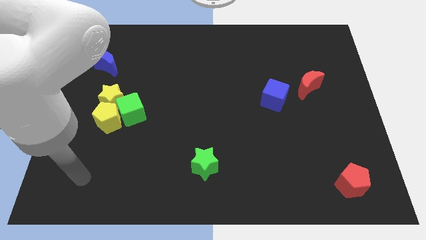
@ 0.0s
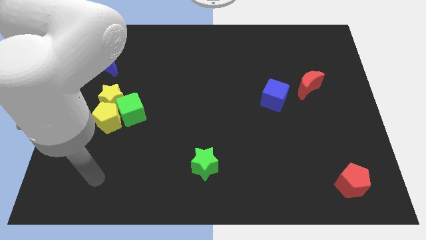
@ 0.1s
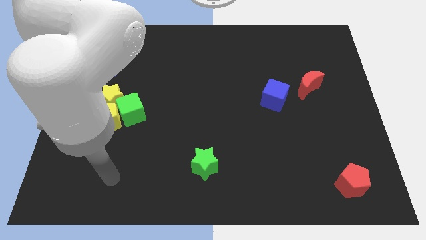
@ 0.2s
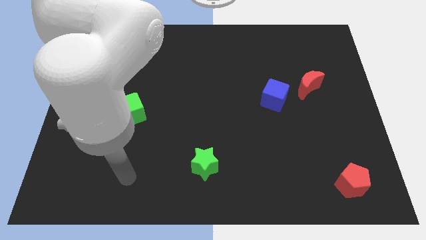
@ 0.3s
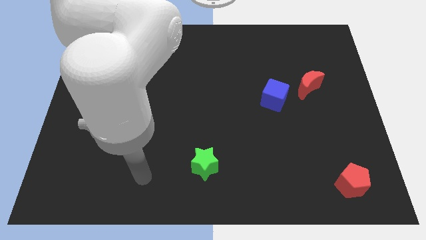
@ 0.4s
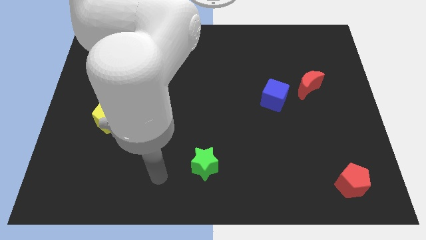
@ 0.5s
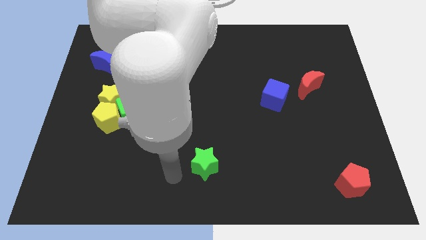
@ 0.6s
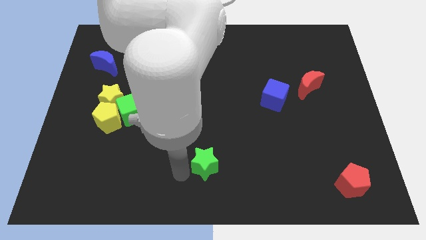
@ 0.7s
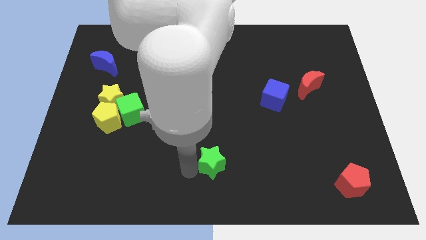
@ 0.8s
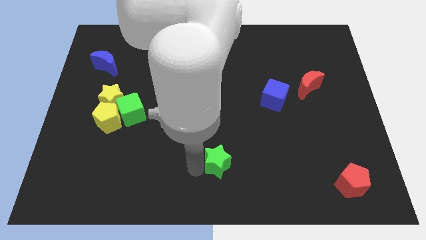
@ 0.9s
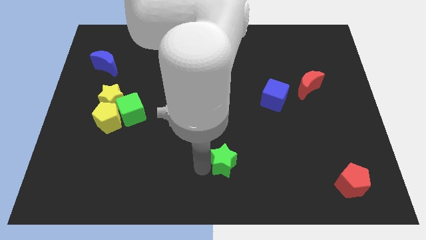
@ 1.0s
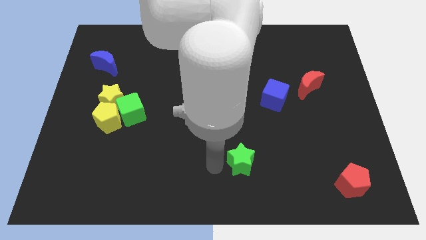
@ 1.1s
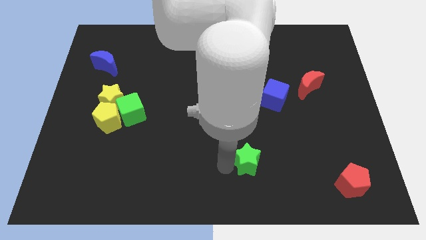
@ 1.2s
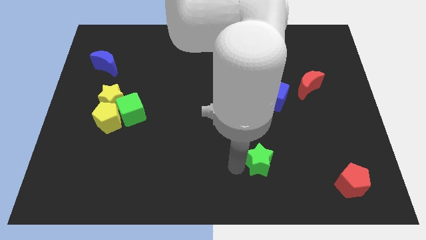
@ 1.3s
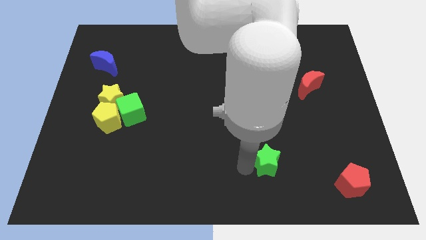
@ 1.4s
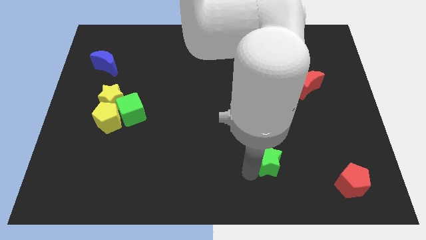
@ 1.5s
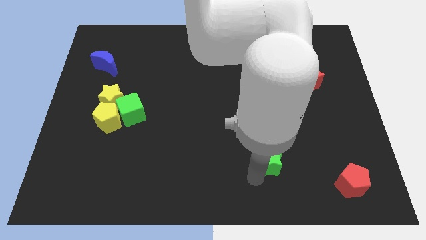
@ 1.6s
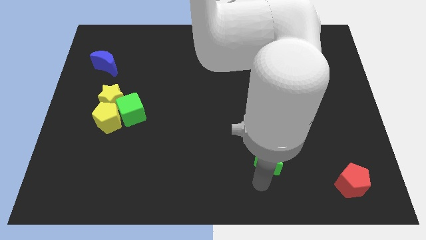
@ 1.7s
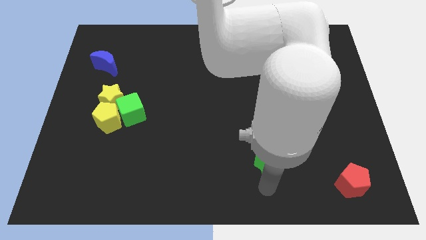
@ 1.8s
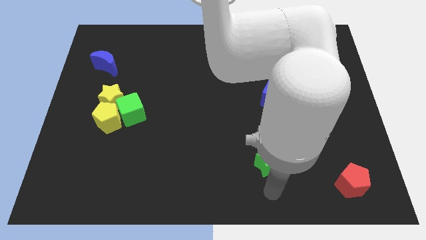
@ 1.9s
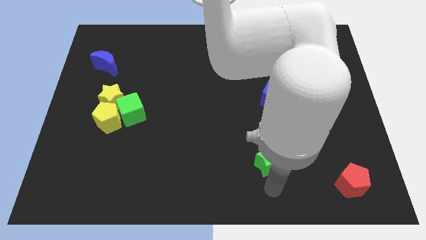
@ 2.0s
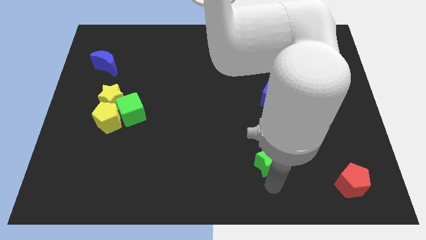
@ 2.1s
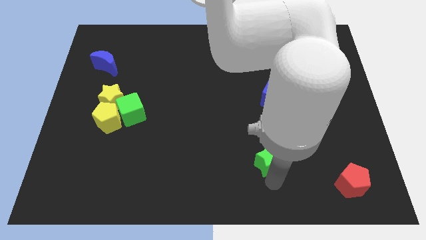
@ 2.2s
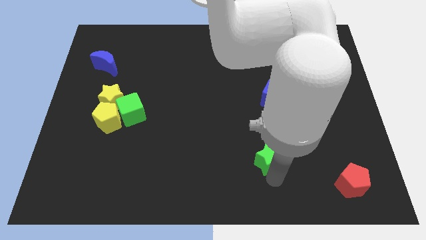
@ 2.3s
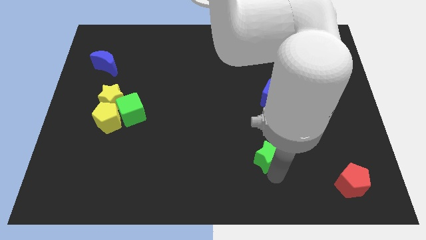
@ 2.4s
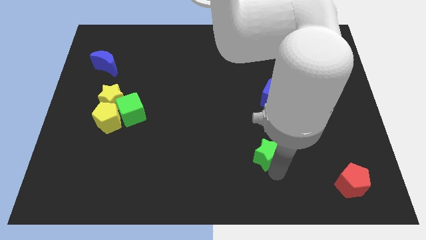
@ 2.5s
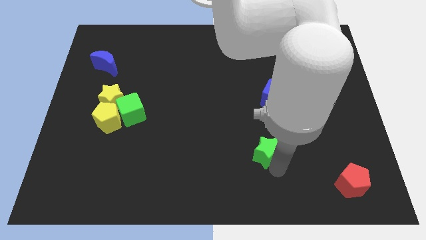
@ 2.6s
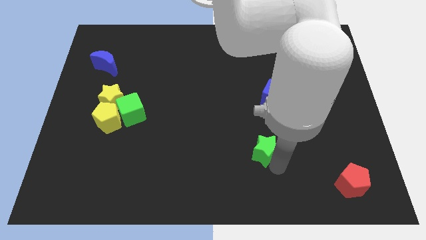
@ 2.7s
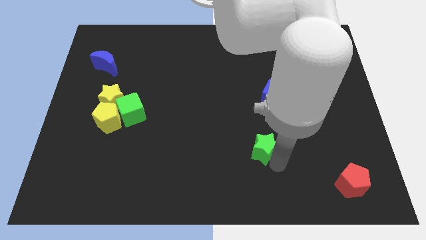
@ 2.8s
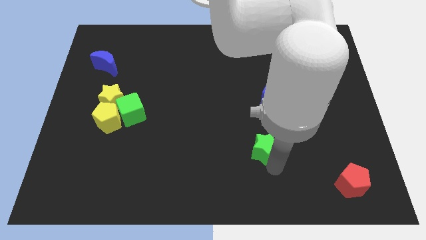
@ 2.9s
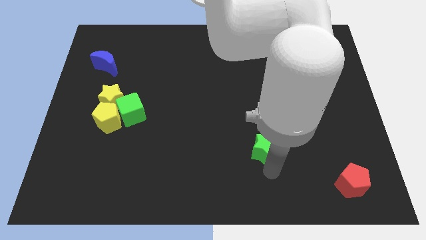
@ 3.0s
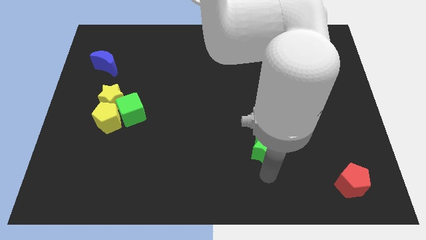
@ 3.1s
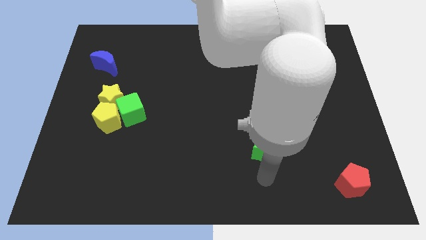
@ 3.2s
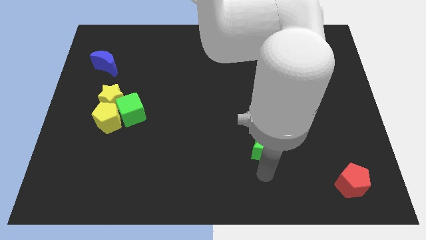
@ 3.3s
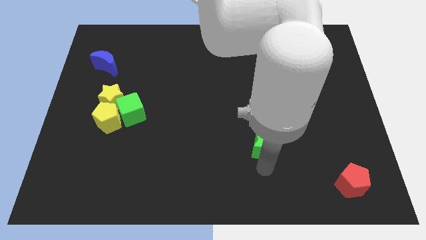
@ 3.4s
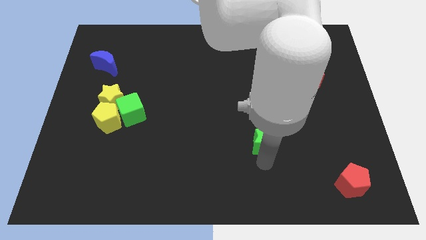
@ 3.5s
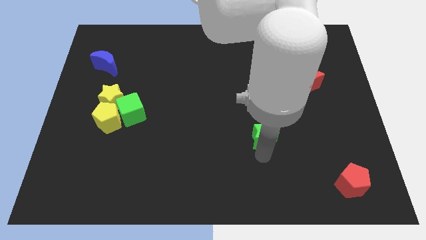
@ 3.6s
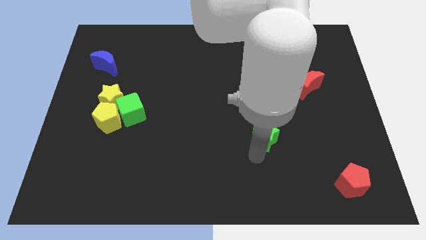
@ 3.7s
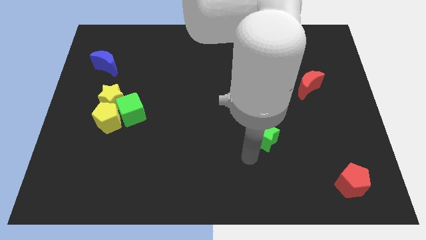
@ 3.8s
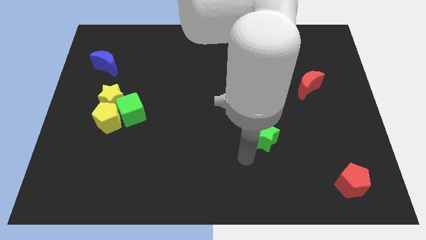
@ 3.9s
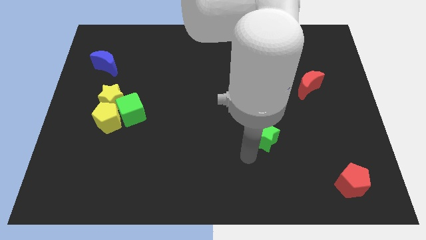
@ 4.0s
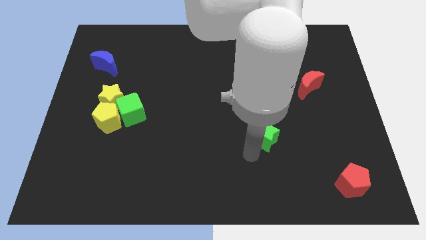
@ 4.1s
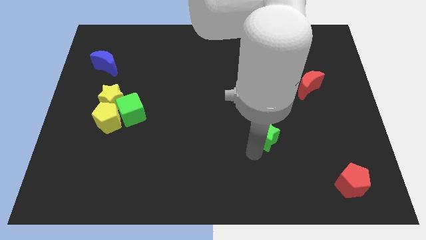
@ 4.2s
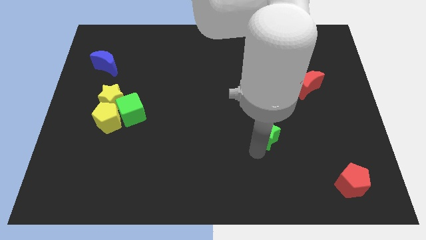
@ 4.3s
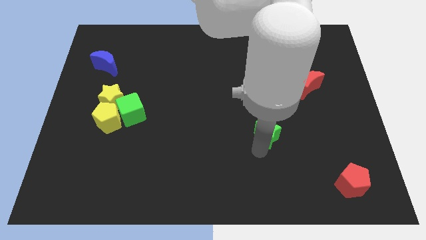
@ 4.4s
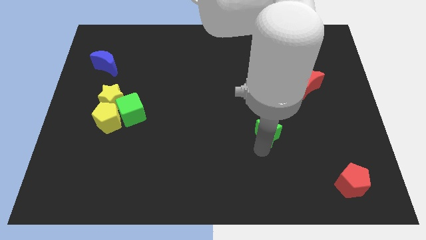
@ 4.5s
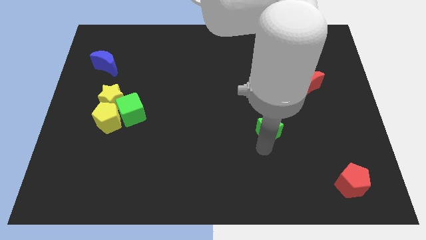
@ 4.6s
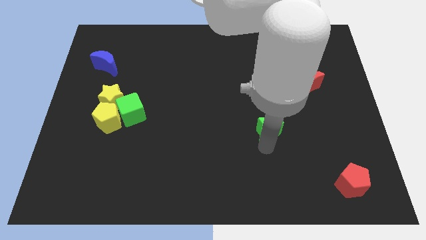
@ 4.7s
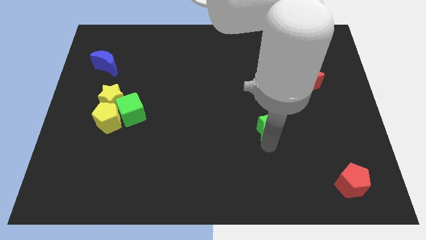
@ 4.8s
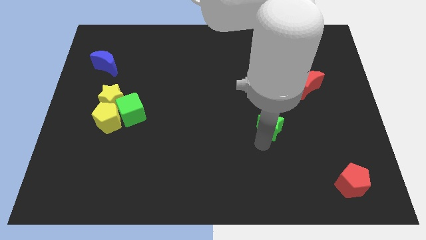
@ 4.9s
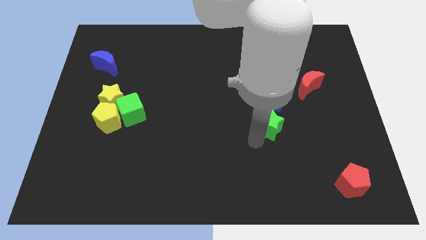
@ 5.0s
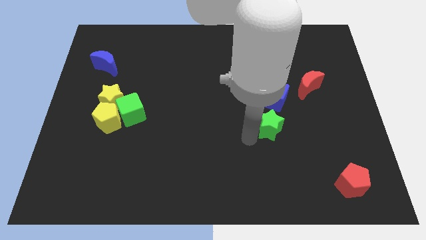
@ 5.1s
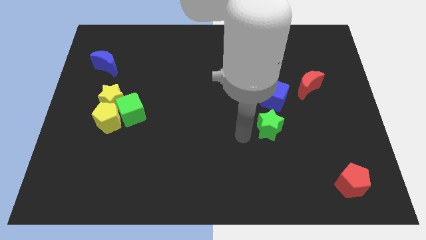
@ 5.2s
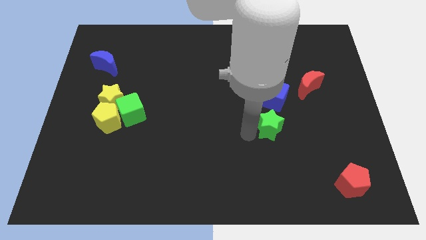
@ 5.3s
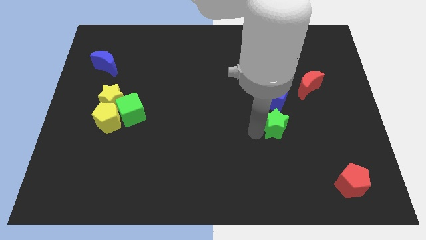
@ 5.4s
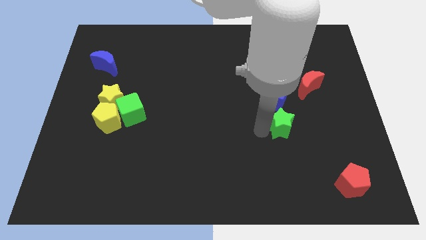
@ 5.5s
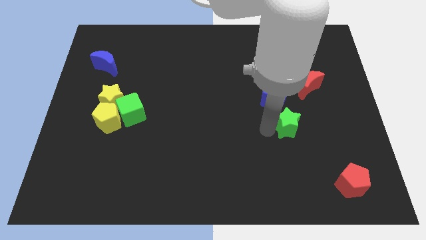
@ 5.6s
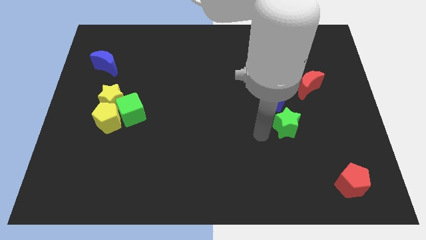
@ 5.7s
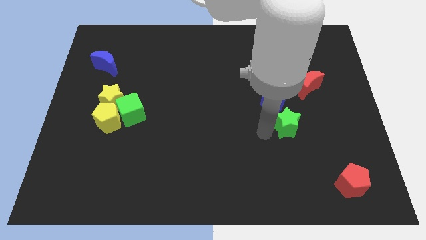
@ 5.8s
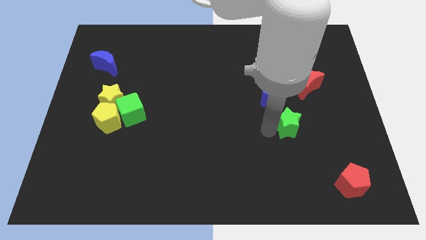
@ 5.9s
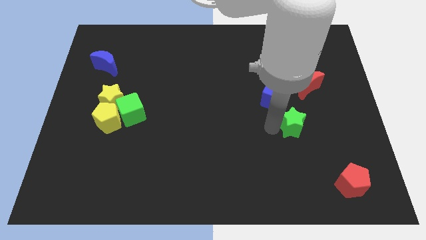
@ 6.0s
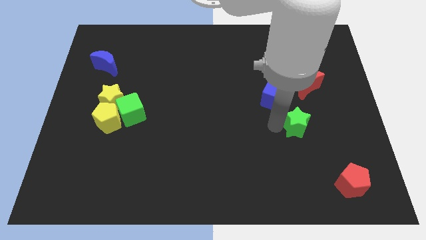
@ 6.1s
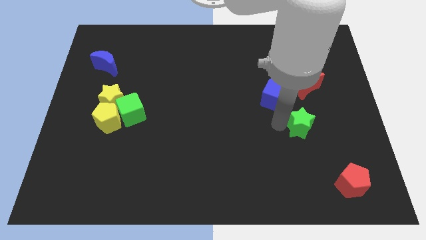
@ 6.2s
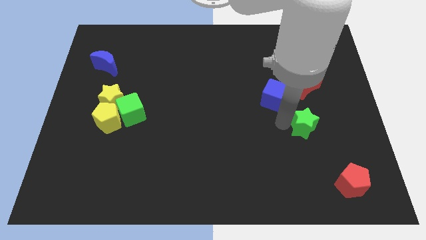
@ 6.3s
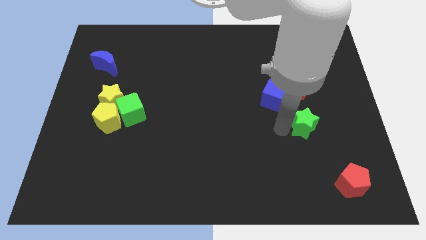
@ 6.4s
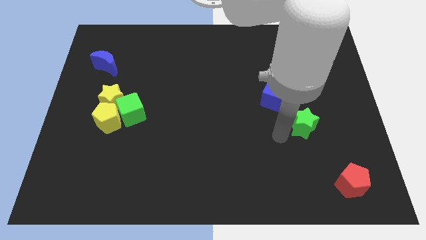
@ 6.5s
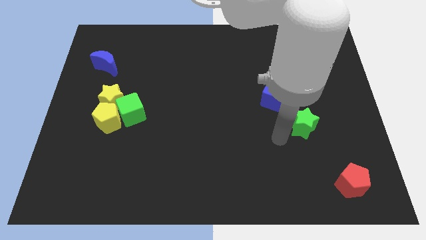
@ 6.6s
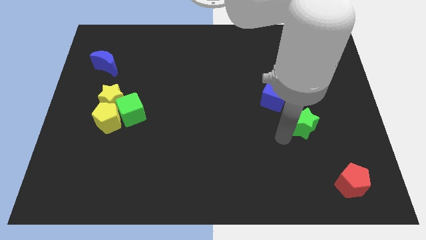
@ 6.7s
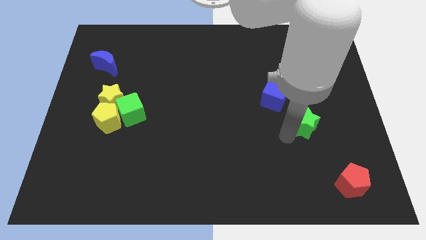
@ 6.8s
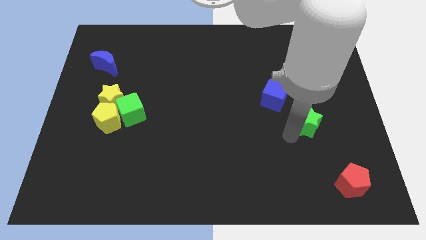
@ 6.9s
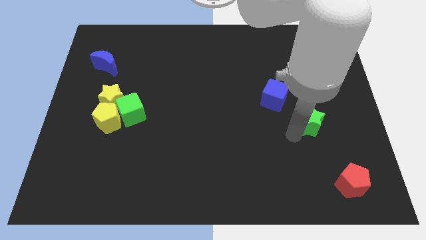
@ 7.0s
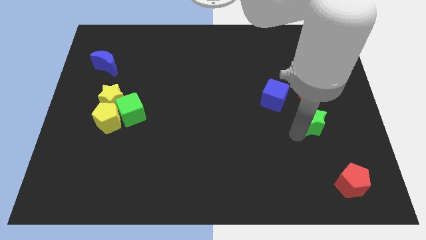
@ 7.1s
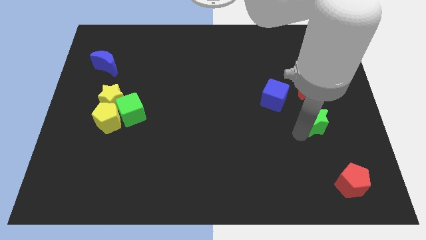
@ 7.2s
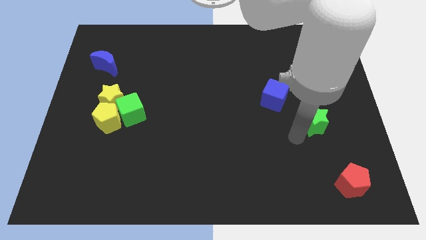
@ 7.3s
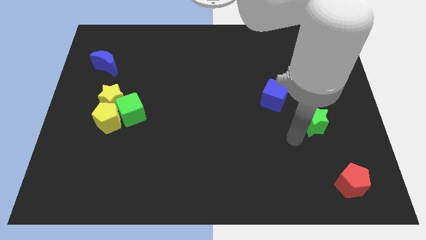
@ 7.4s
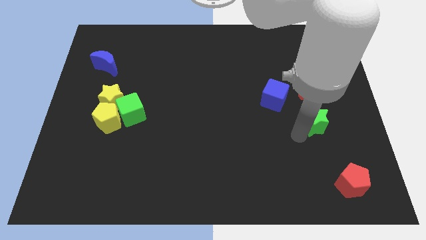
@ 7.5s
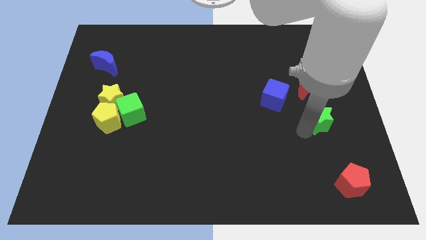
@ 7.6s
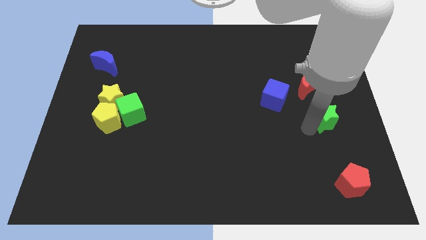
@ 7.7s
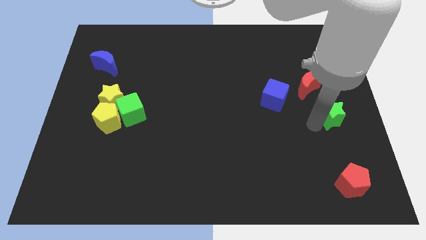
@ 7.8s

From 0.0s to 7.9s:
move the green star to the center right
